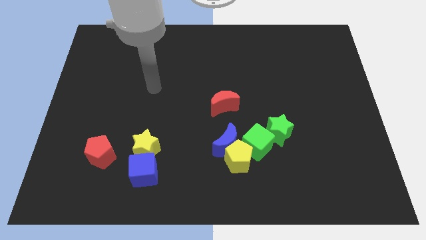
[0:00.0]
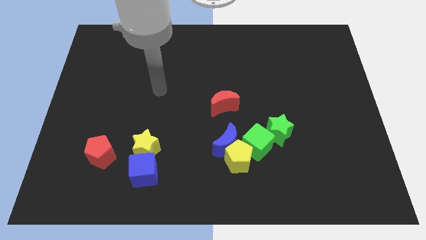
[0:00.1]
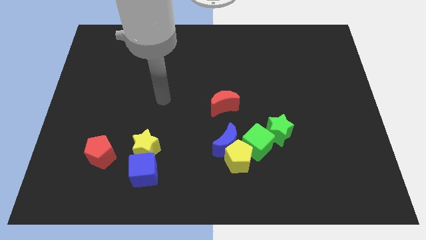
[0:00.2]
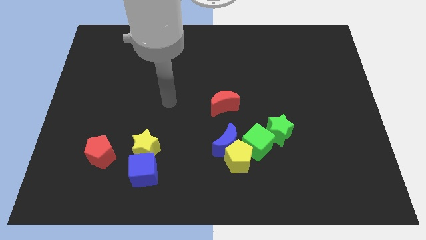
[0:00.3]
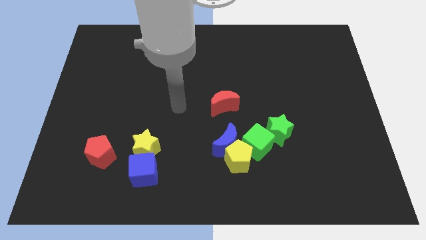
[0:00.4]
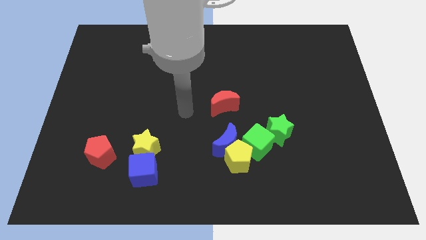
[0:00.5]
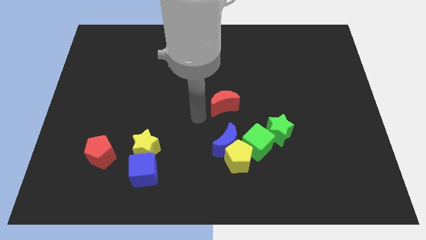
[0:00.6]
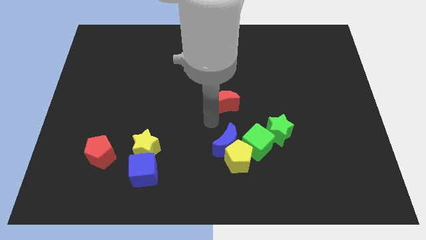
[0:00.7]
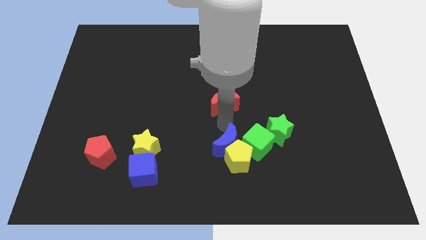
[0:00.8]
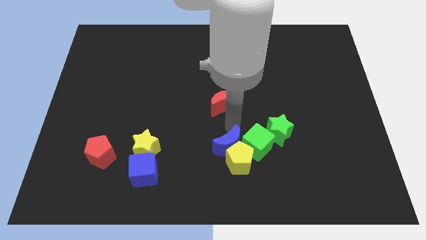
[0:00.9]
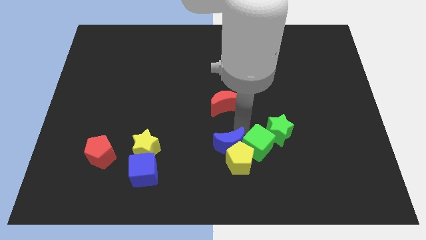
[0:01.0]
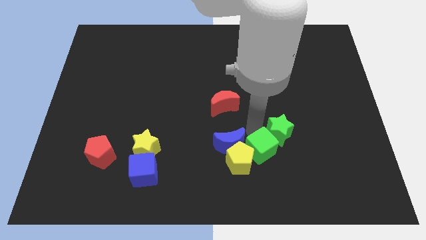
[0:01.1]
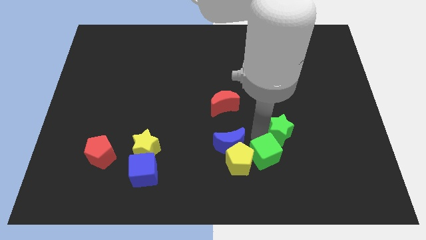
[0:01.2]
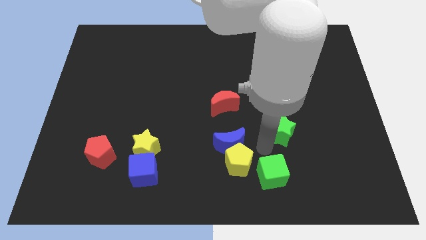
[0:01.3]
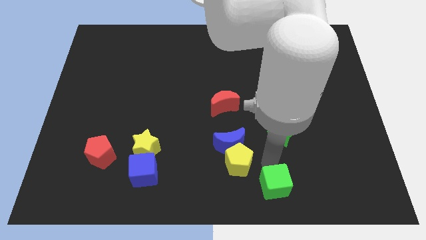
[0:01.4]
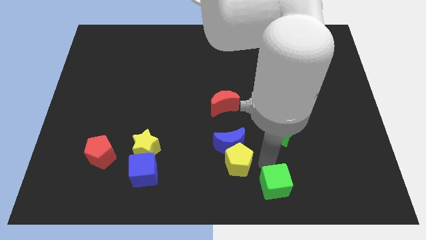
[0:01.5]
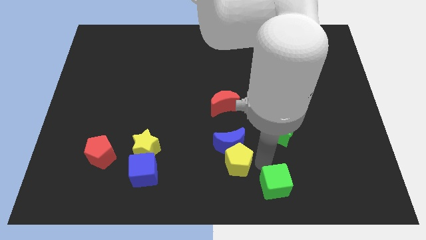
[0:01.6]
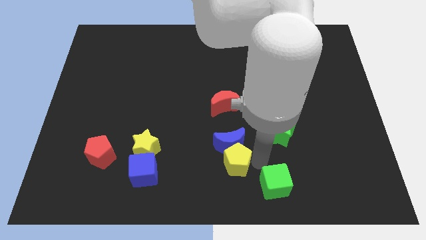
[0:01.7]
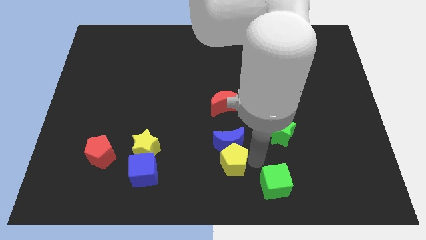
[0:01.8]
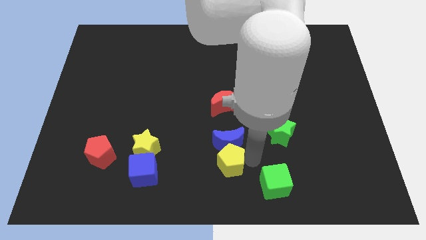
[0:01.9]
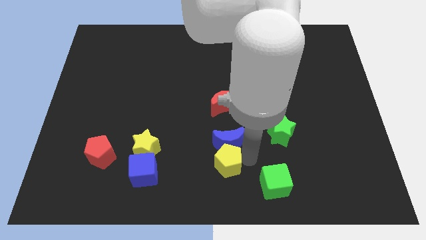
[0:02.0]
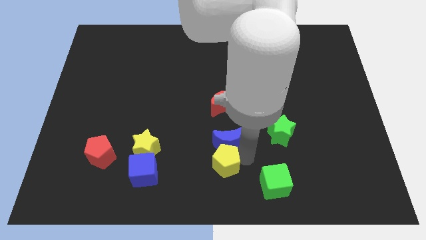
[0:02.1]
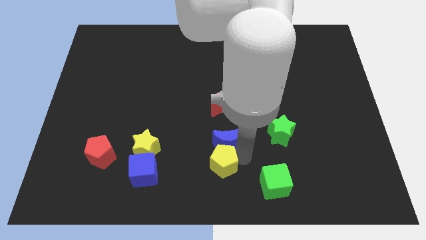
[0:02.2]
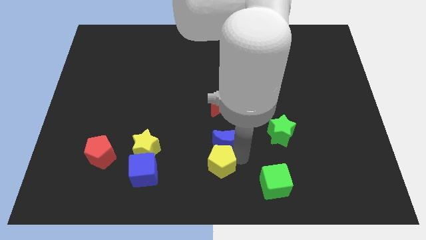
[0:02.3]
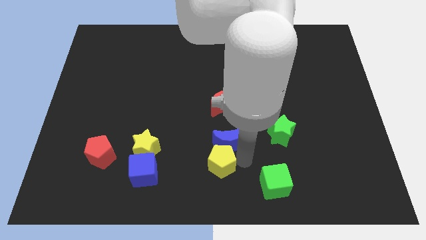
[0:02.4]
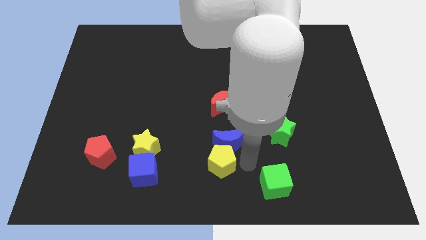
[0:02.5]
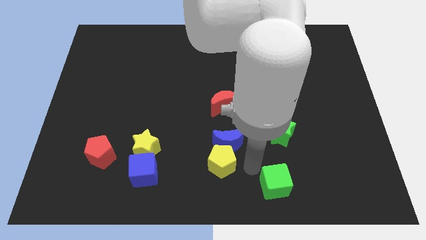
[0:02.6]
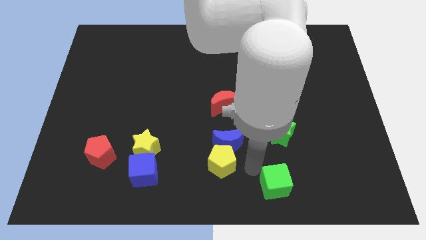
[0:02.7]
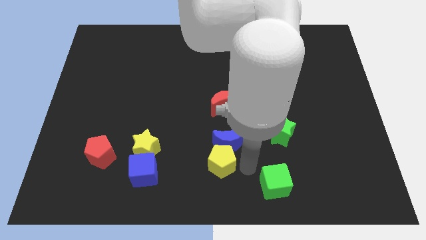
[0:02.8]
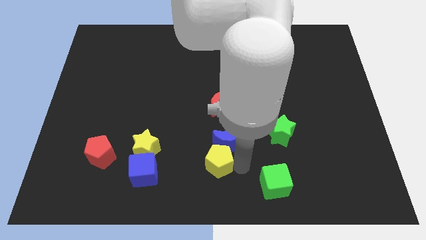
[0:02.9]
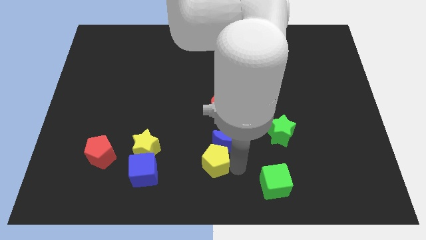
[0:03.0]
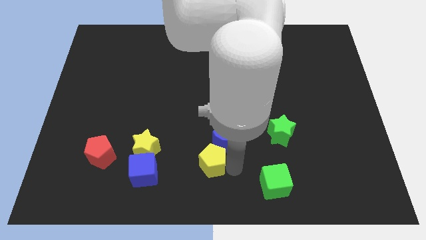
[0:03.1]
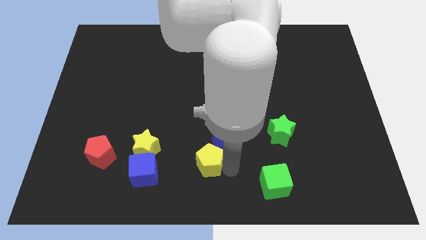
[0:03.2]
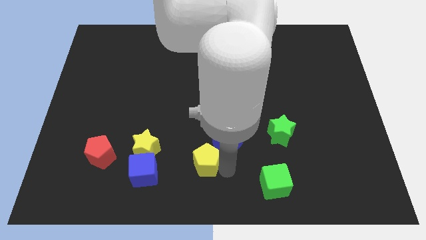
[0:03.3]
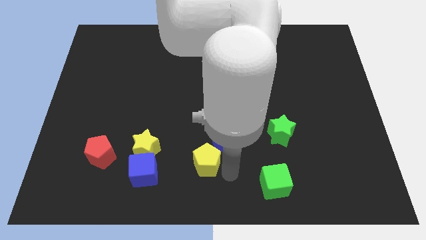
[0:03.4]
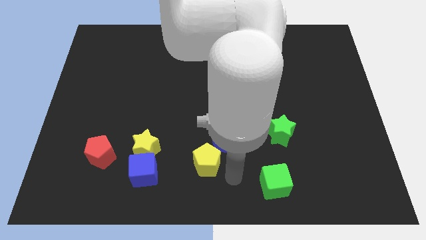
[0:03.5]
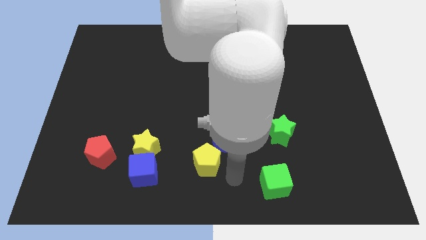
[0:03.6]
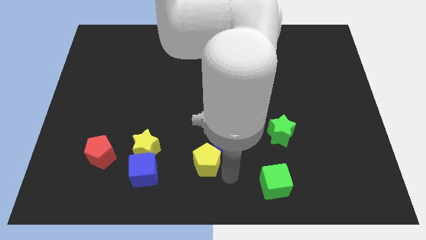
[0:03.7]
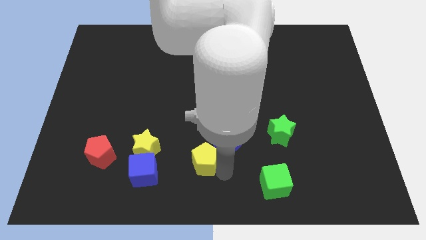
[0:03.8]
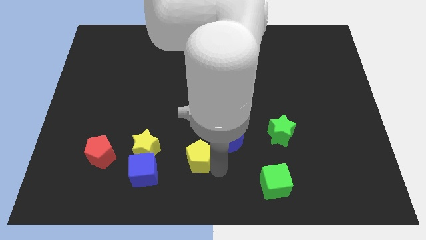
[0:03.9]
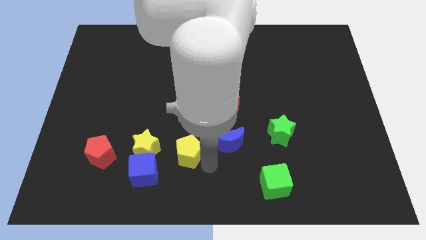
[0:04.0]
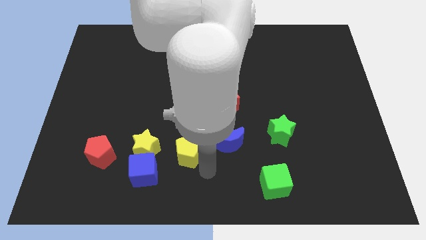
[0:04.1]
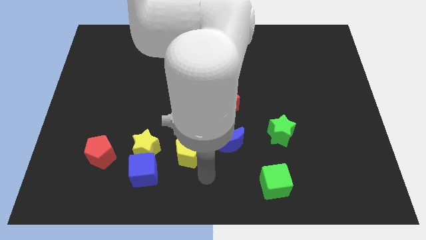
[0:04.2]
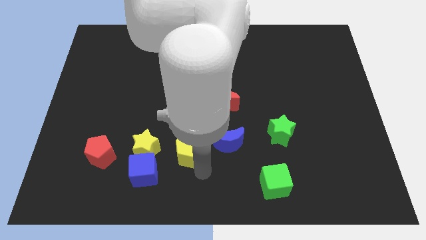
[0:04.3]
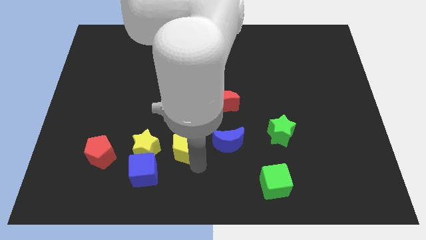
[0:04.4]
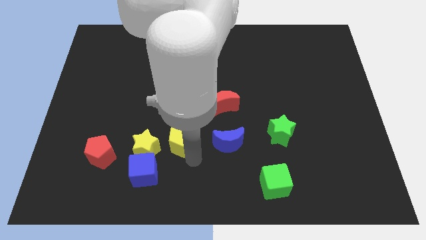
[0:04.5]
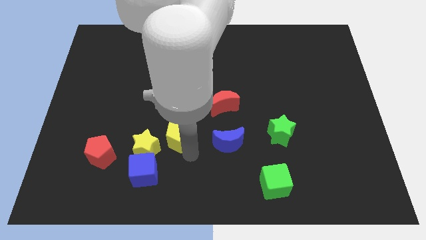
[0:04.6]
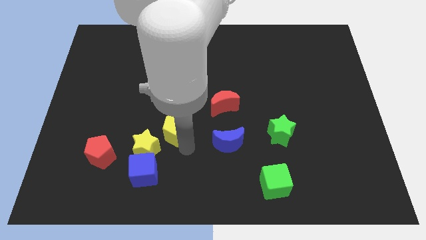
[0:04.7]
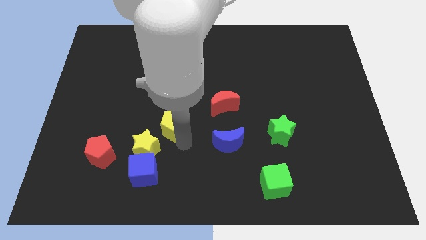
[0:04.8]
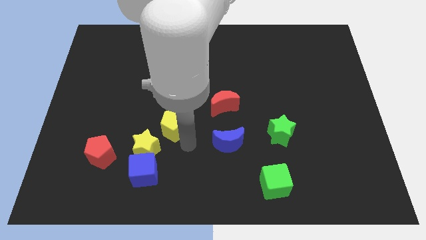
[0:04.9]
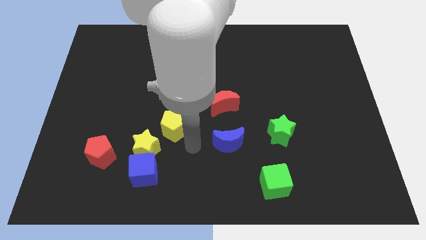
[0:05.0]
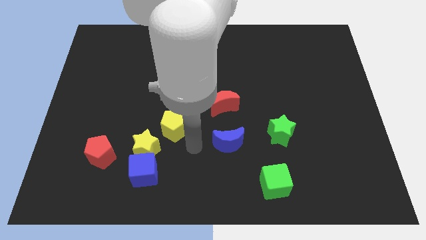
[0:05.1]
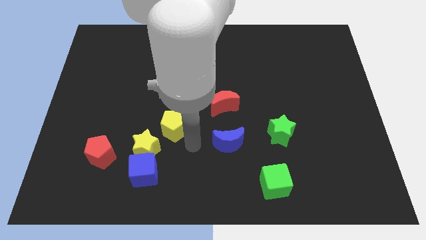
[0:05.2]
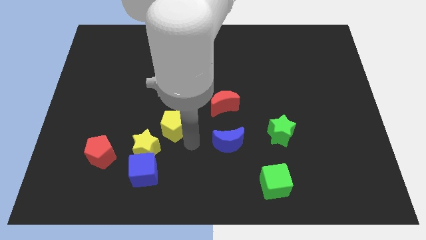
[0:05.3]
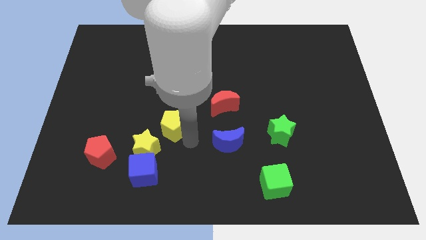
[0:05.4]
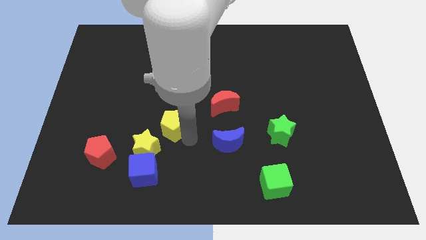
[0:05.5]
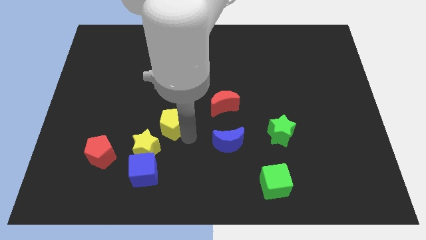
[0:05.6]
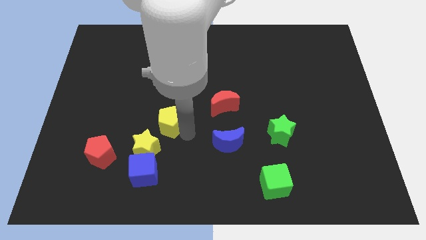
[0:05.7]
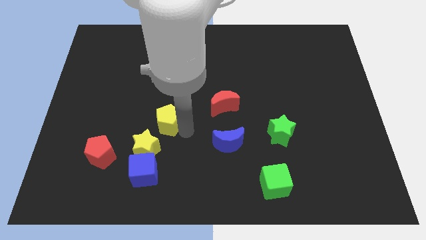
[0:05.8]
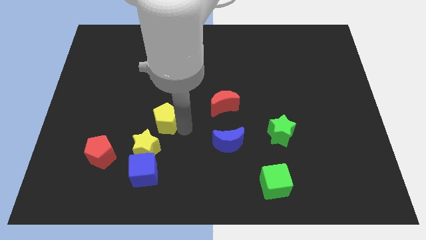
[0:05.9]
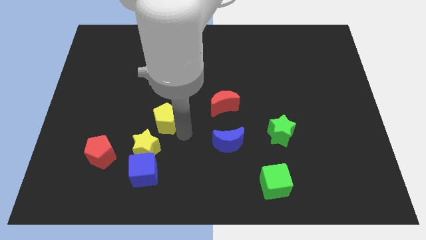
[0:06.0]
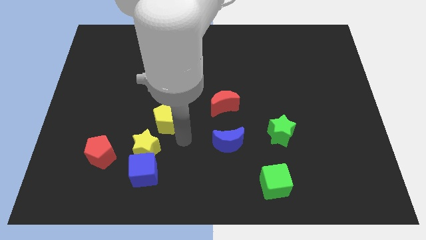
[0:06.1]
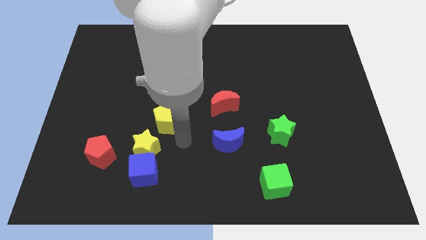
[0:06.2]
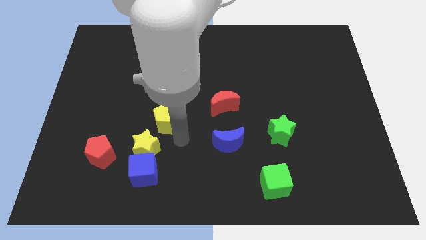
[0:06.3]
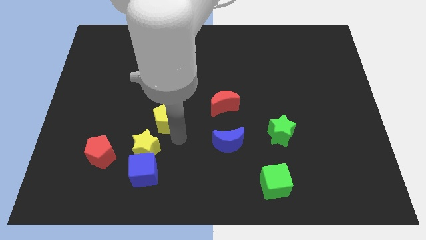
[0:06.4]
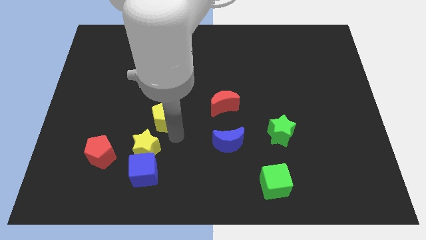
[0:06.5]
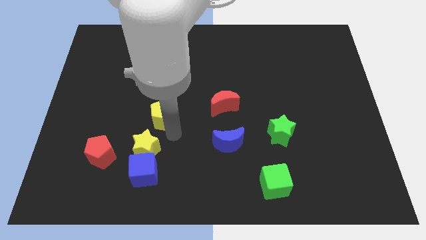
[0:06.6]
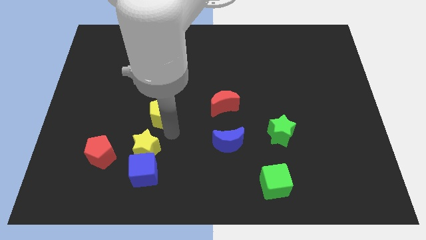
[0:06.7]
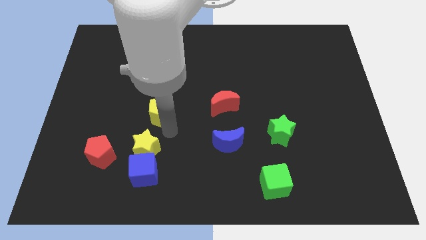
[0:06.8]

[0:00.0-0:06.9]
slide the yellow pentagon upwards and then to the left

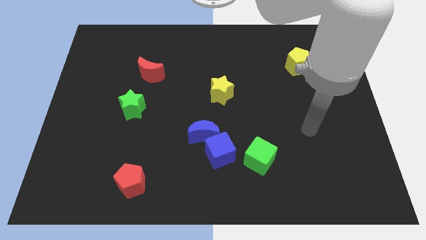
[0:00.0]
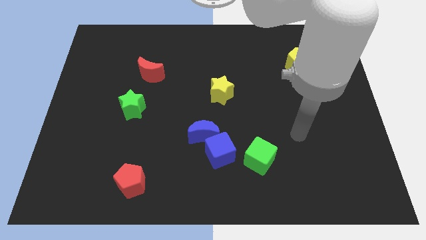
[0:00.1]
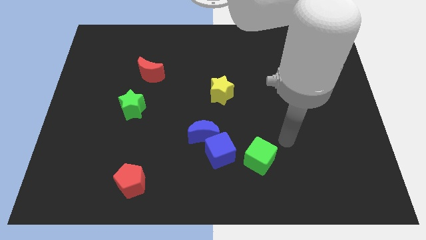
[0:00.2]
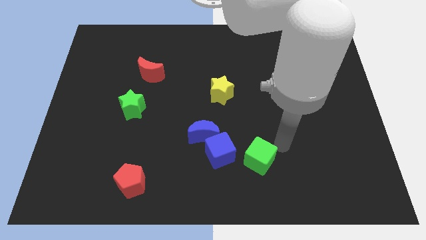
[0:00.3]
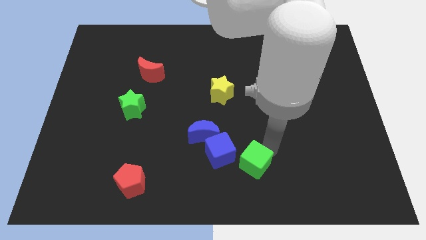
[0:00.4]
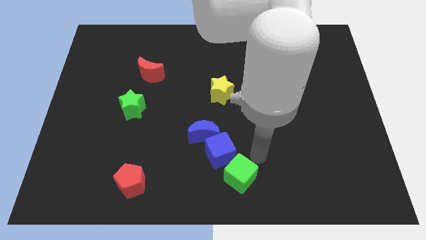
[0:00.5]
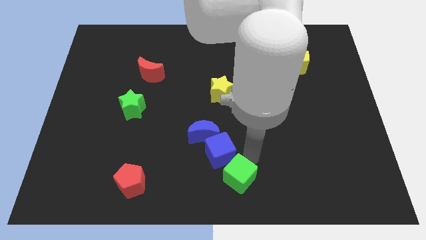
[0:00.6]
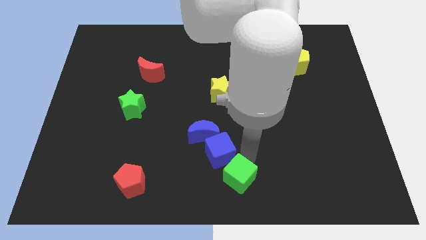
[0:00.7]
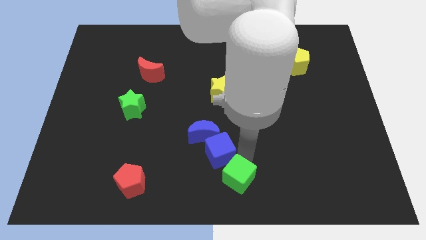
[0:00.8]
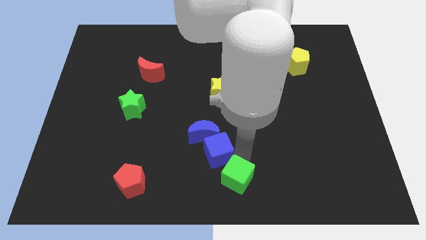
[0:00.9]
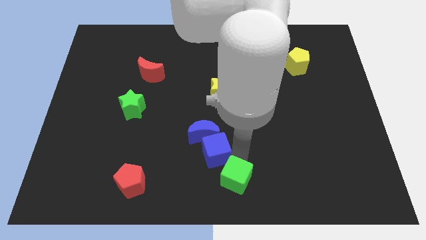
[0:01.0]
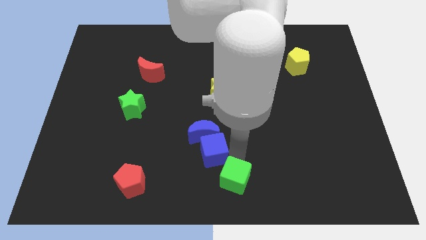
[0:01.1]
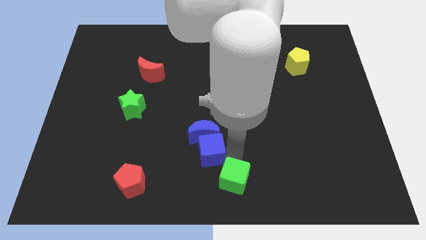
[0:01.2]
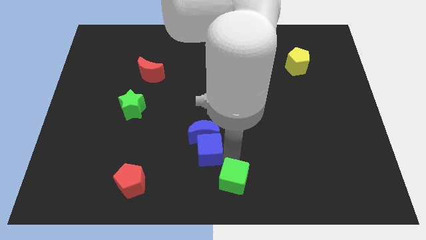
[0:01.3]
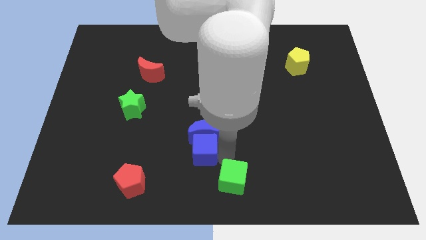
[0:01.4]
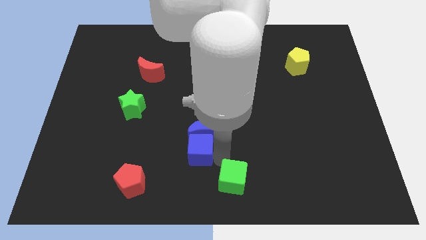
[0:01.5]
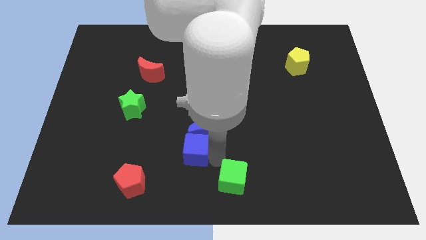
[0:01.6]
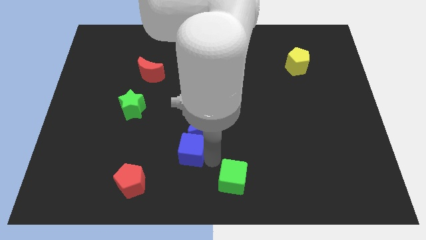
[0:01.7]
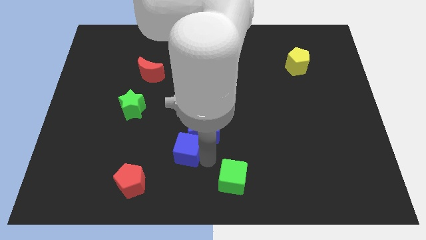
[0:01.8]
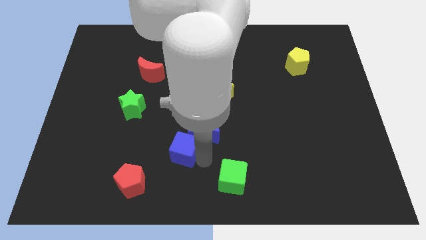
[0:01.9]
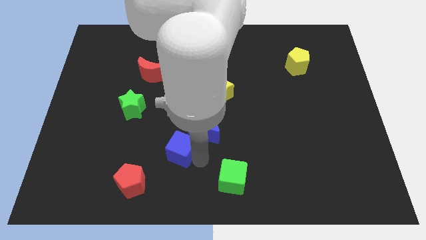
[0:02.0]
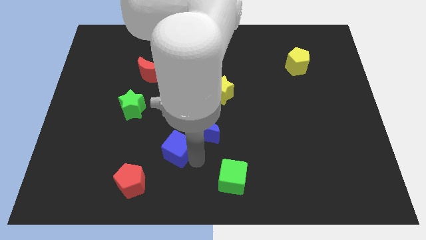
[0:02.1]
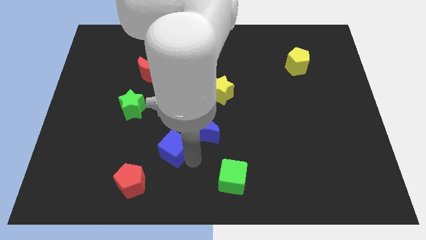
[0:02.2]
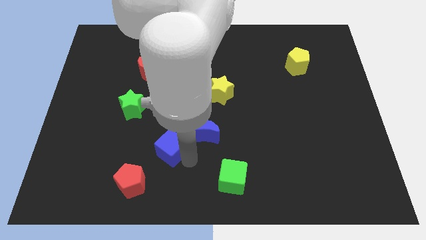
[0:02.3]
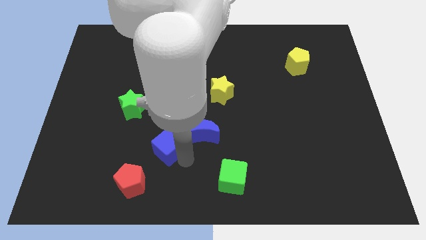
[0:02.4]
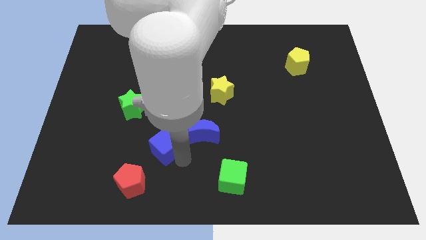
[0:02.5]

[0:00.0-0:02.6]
slightly push the blue cube upwards and to the left
